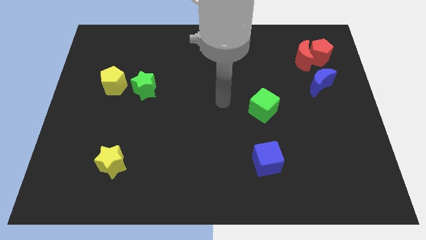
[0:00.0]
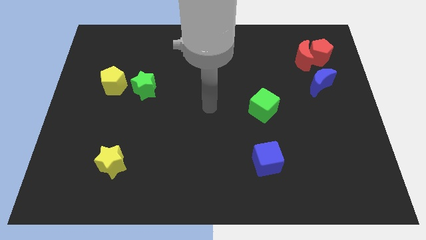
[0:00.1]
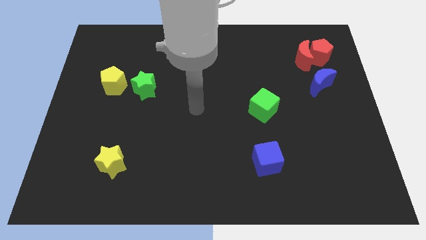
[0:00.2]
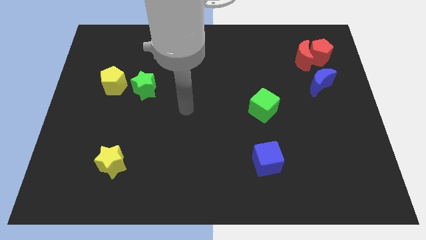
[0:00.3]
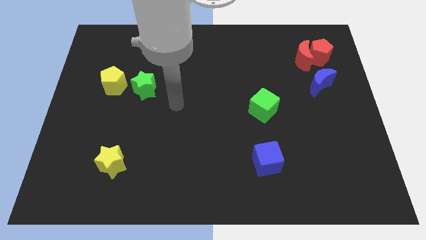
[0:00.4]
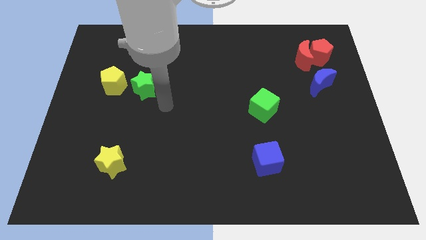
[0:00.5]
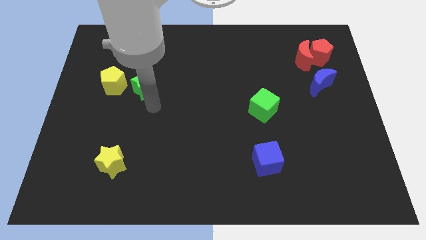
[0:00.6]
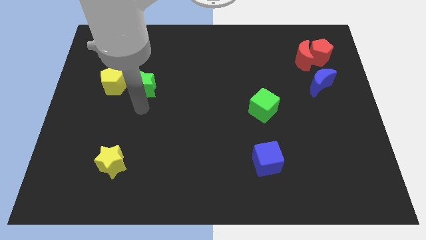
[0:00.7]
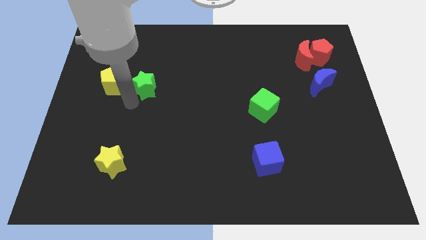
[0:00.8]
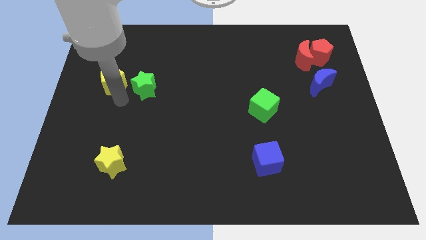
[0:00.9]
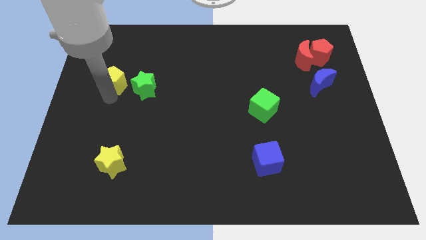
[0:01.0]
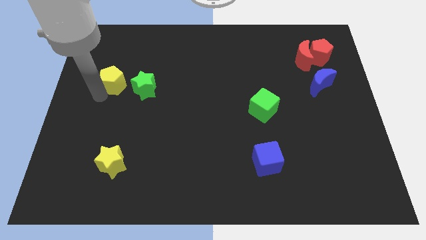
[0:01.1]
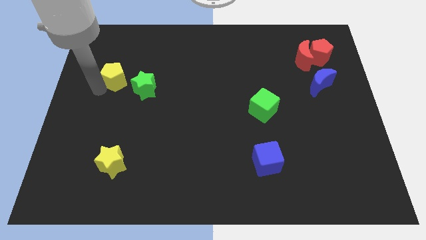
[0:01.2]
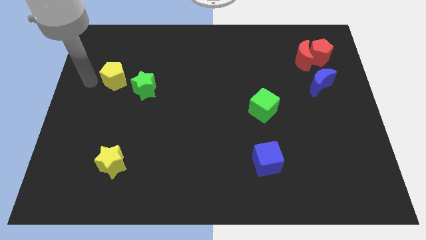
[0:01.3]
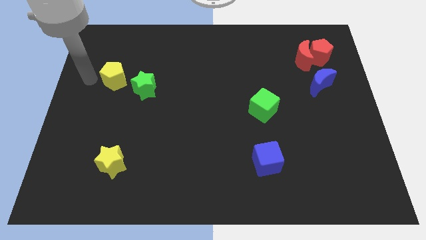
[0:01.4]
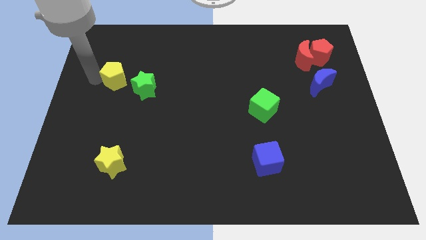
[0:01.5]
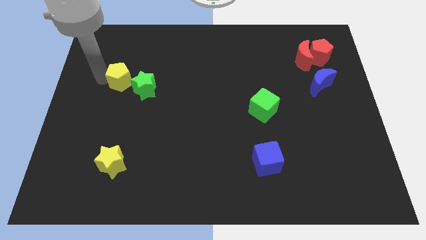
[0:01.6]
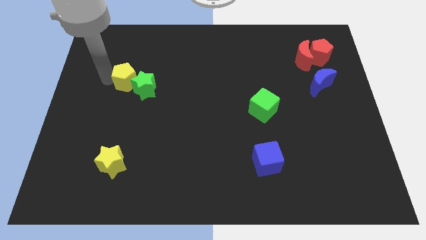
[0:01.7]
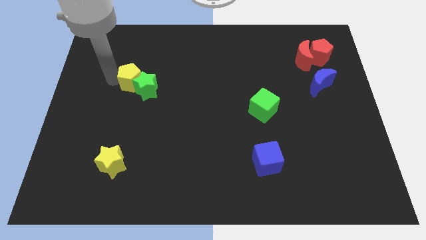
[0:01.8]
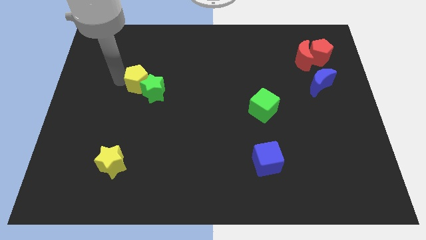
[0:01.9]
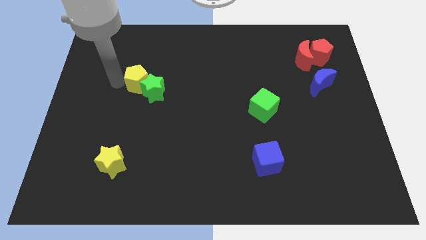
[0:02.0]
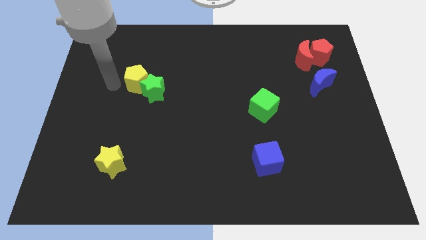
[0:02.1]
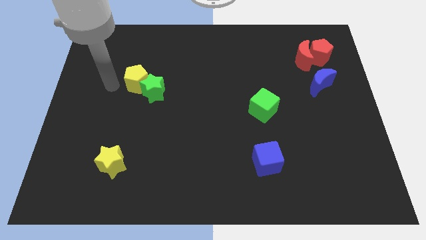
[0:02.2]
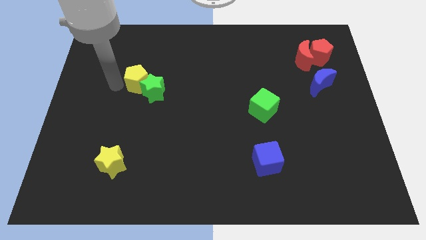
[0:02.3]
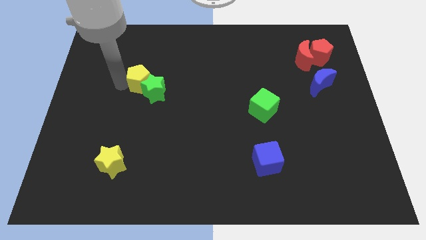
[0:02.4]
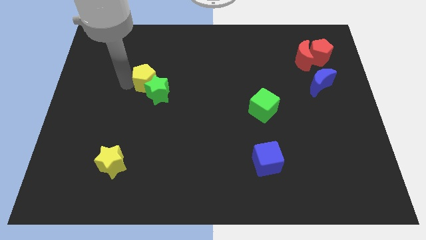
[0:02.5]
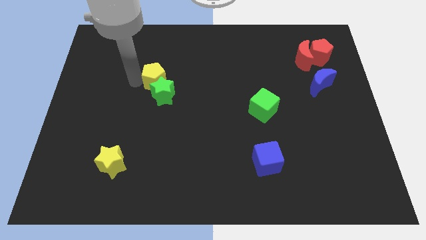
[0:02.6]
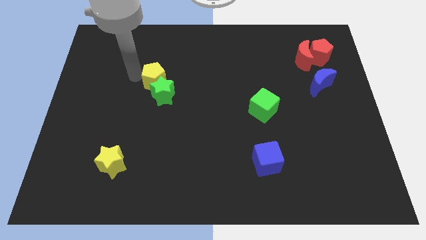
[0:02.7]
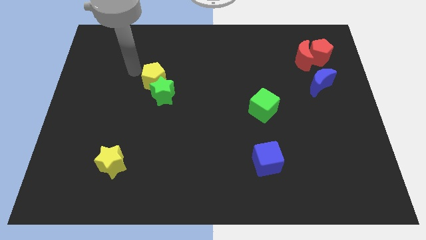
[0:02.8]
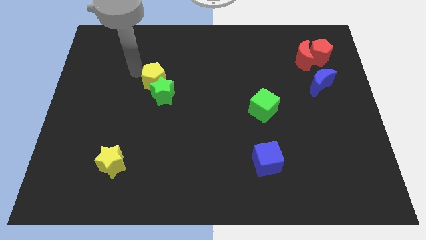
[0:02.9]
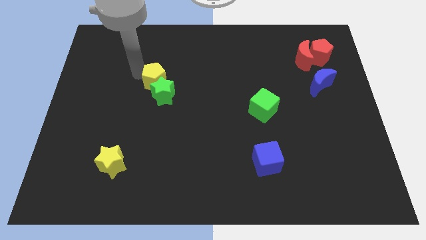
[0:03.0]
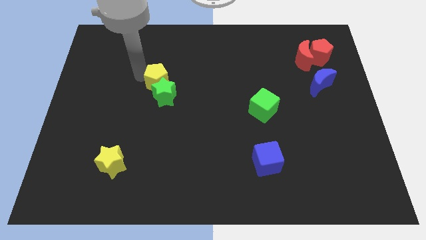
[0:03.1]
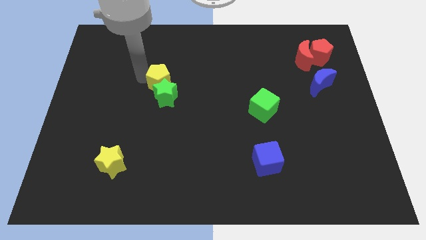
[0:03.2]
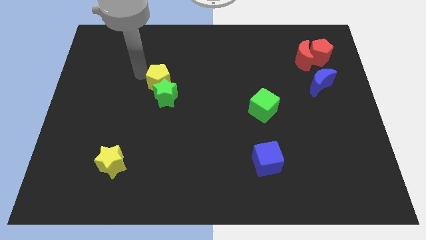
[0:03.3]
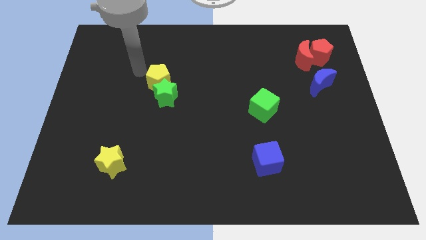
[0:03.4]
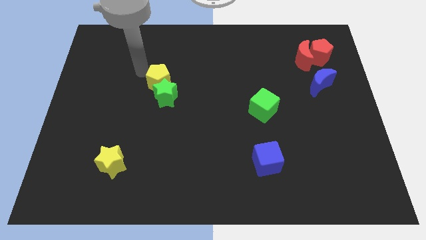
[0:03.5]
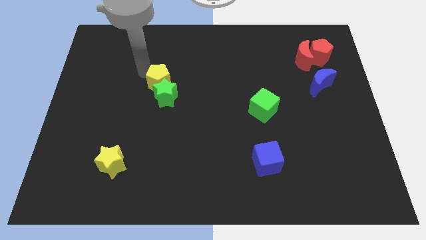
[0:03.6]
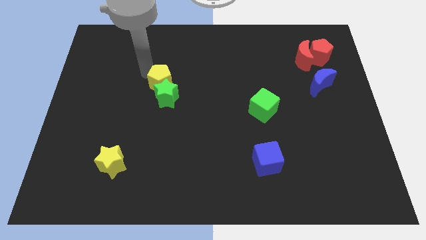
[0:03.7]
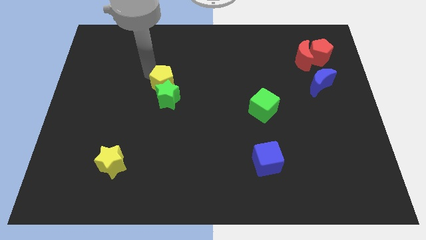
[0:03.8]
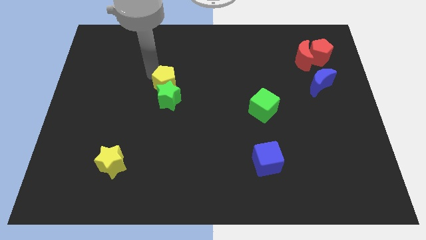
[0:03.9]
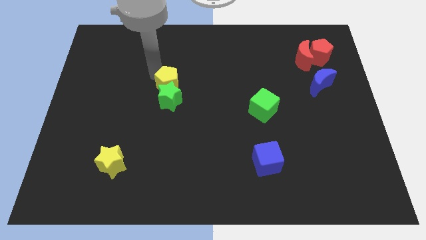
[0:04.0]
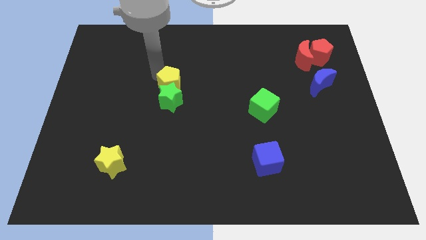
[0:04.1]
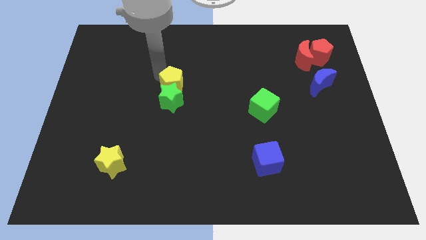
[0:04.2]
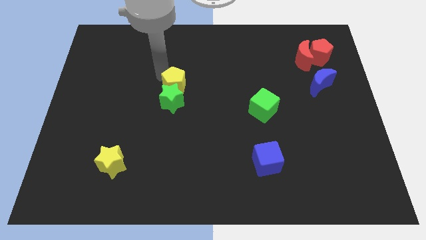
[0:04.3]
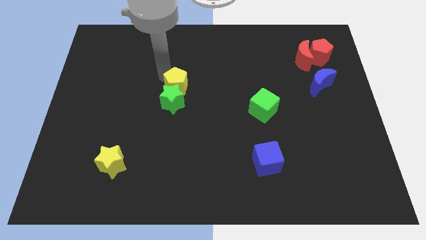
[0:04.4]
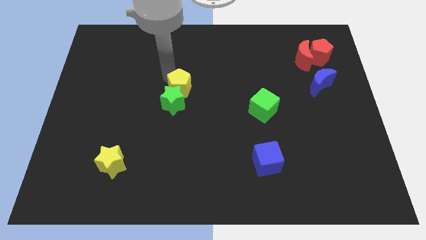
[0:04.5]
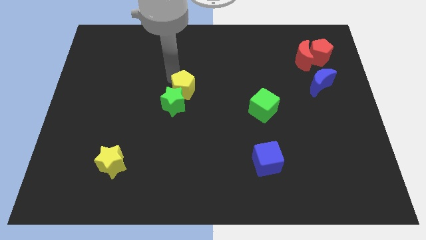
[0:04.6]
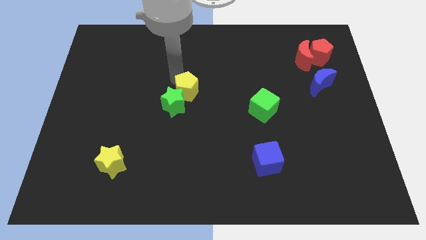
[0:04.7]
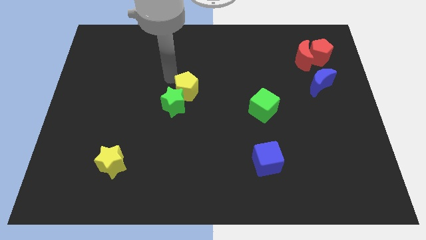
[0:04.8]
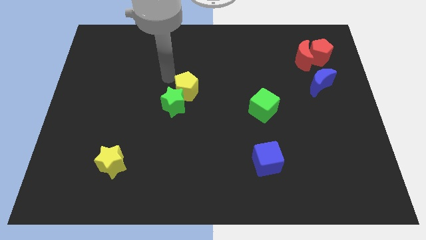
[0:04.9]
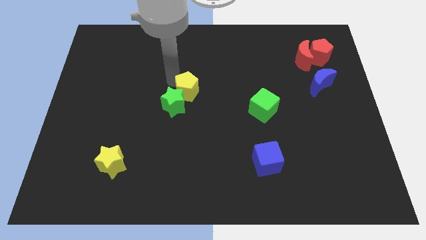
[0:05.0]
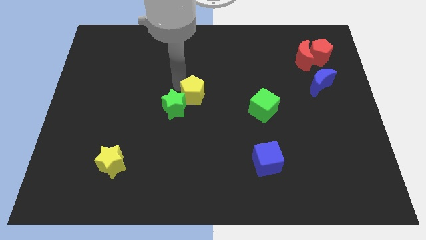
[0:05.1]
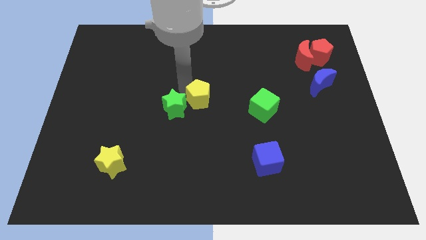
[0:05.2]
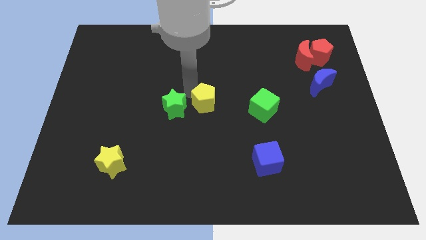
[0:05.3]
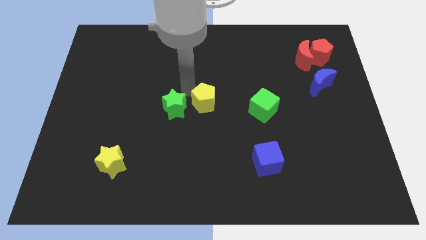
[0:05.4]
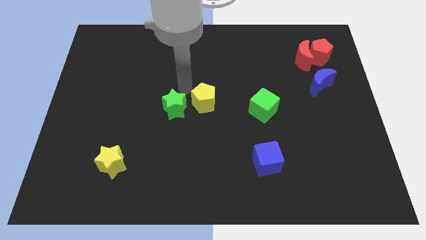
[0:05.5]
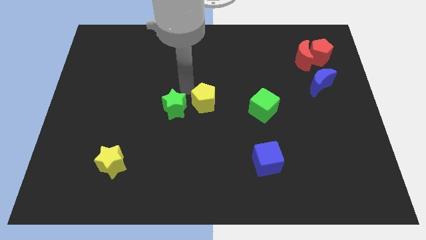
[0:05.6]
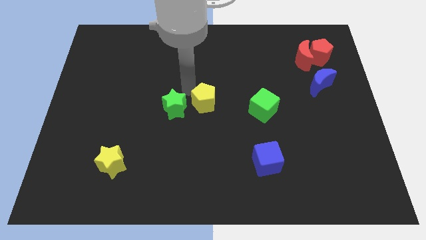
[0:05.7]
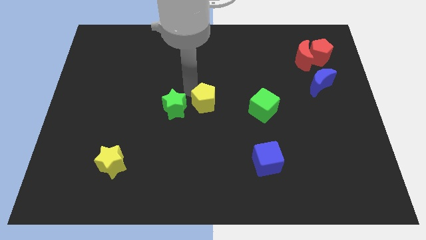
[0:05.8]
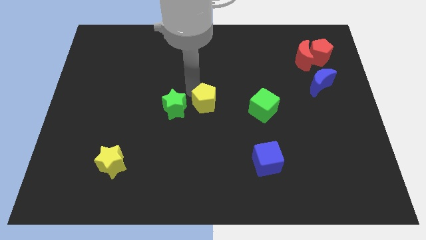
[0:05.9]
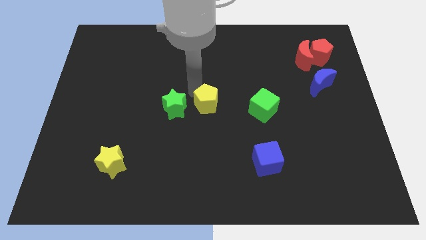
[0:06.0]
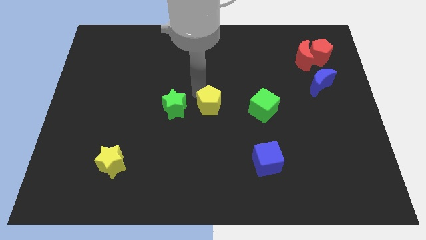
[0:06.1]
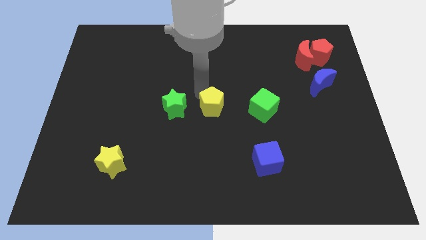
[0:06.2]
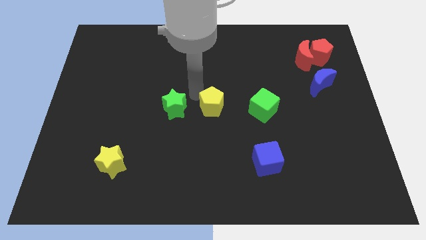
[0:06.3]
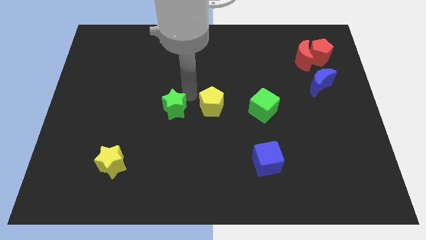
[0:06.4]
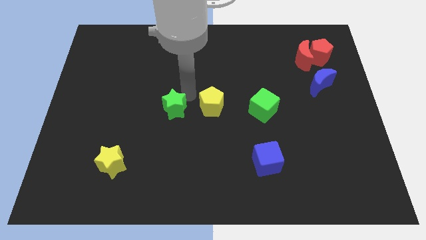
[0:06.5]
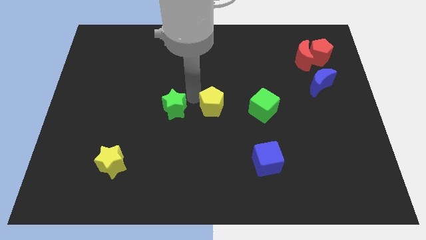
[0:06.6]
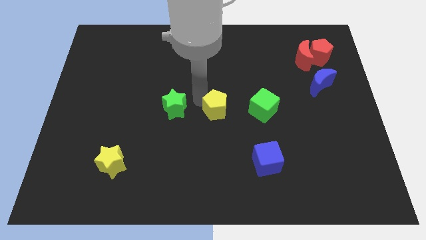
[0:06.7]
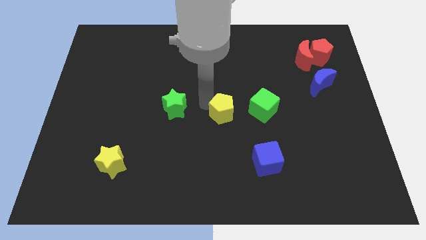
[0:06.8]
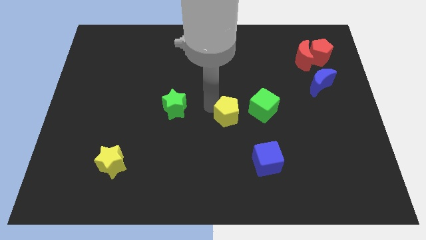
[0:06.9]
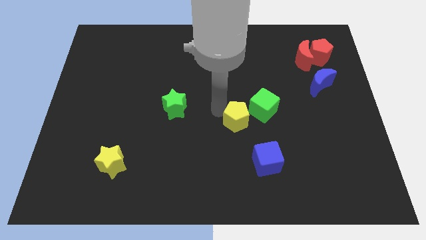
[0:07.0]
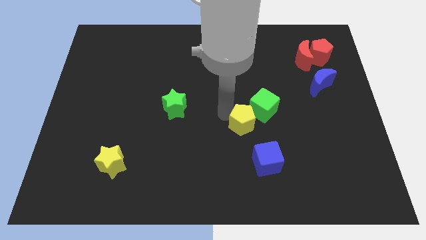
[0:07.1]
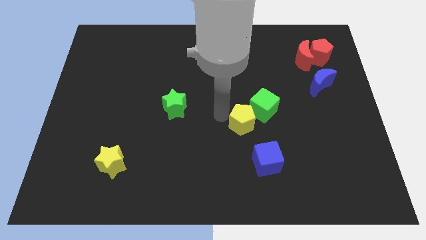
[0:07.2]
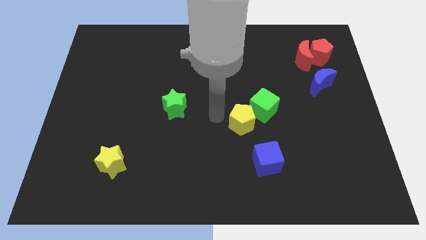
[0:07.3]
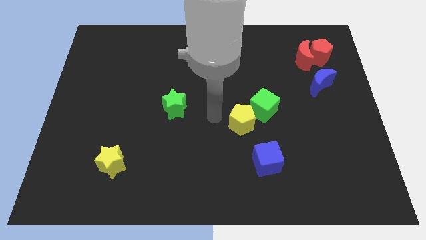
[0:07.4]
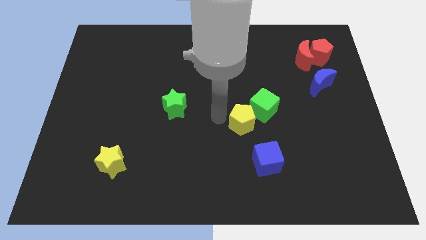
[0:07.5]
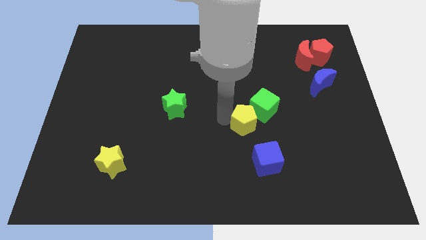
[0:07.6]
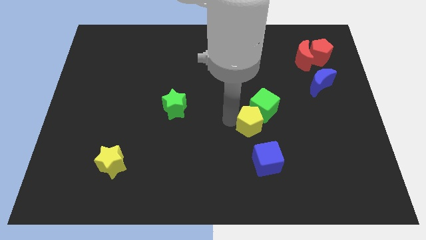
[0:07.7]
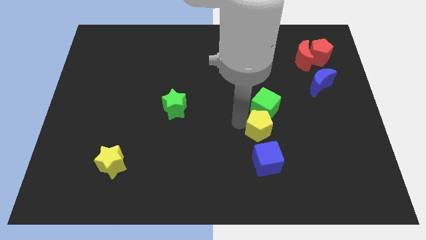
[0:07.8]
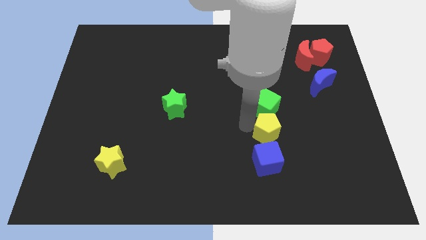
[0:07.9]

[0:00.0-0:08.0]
move the yellow pentagon to the bottom right side of the green cube
